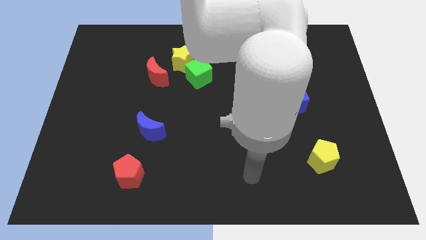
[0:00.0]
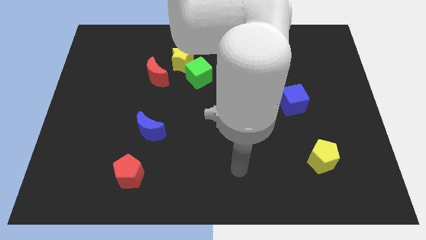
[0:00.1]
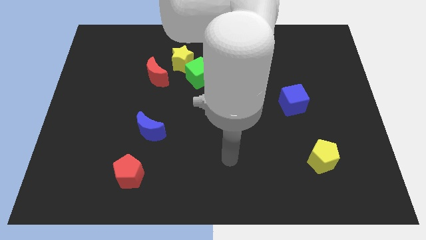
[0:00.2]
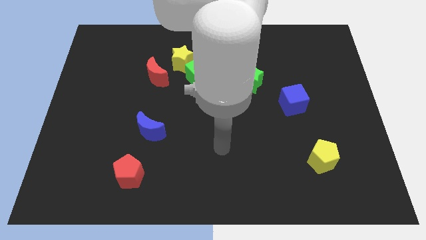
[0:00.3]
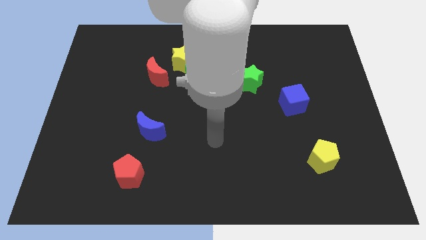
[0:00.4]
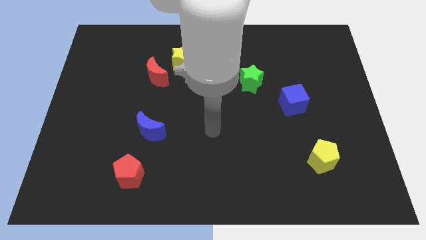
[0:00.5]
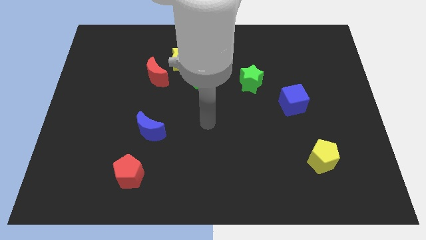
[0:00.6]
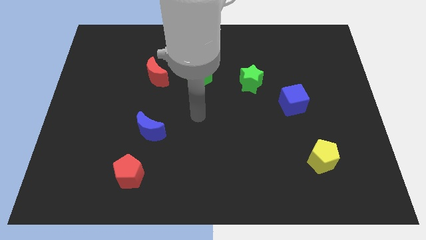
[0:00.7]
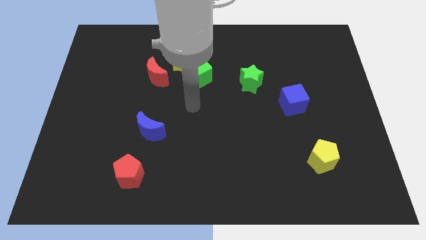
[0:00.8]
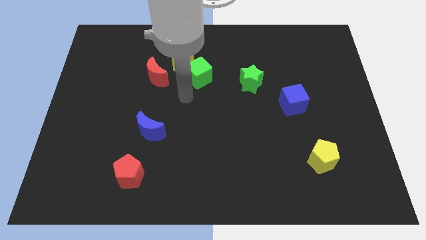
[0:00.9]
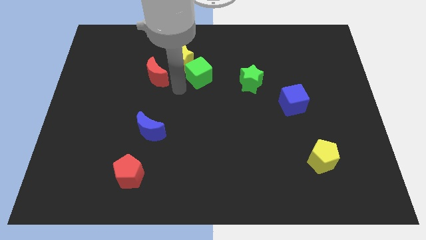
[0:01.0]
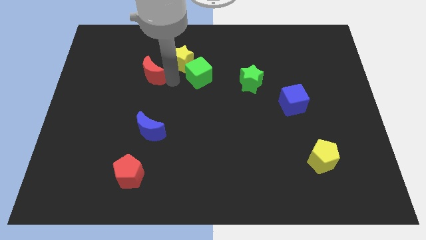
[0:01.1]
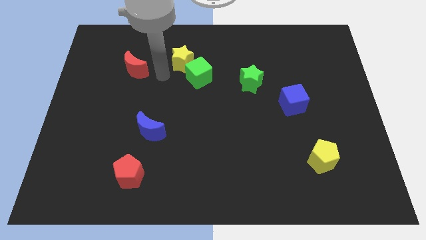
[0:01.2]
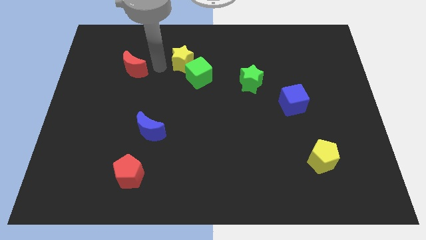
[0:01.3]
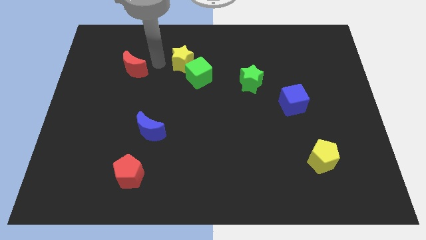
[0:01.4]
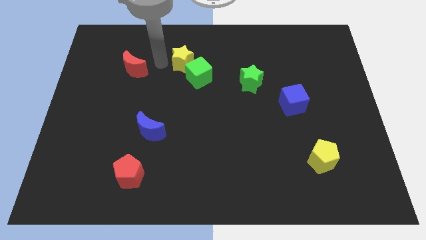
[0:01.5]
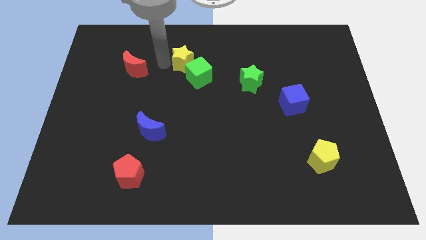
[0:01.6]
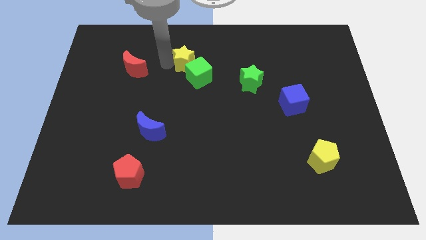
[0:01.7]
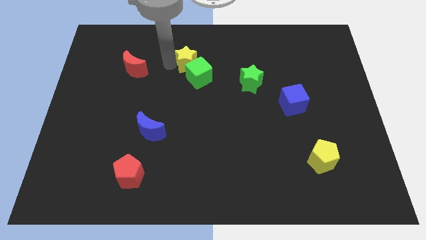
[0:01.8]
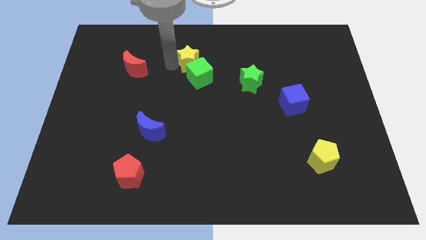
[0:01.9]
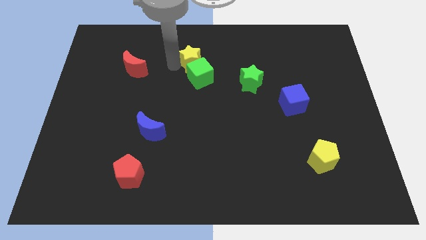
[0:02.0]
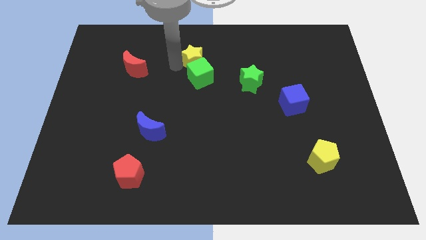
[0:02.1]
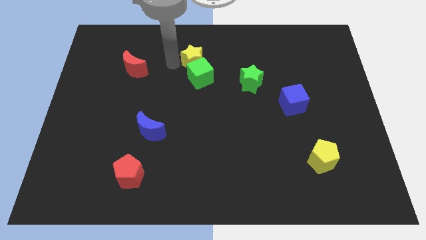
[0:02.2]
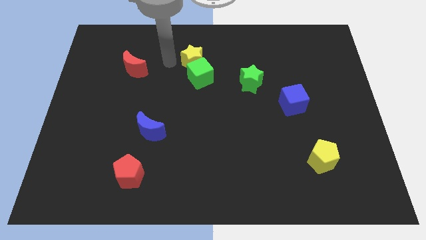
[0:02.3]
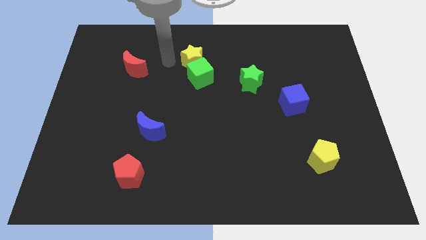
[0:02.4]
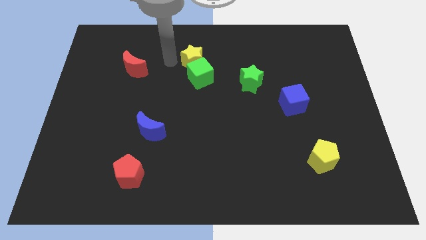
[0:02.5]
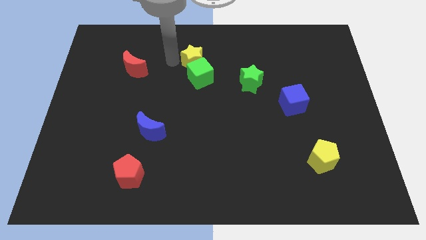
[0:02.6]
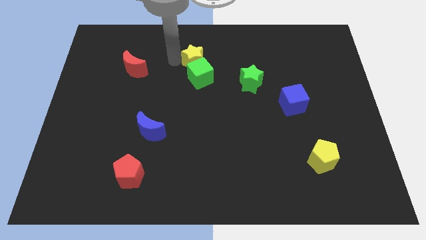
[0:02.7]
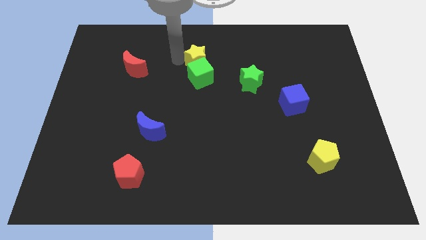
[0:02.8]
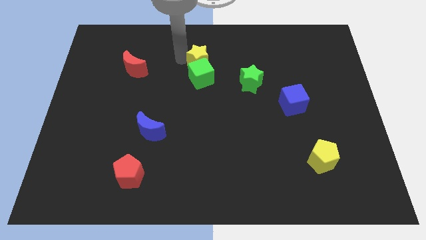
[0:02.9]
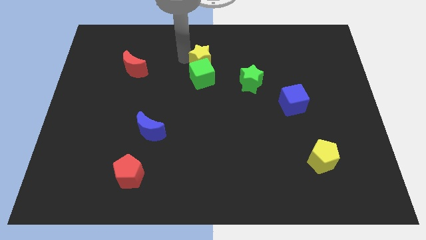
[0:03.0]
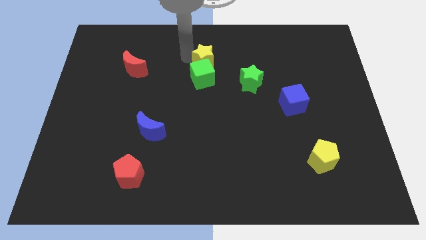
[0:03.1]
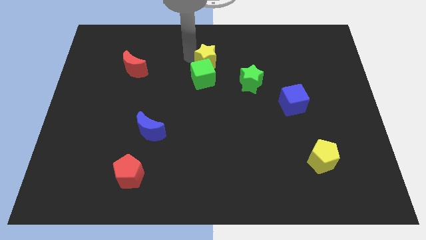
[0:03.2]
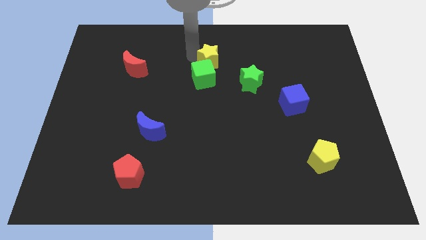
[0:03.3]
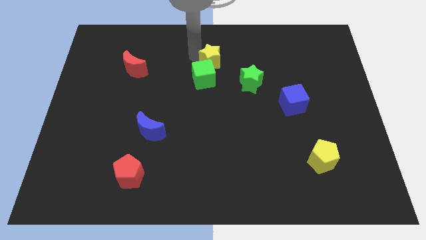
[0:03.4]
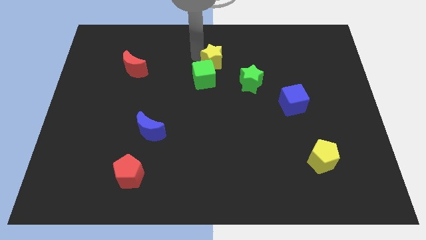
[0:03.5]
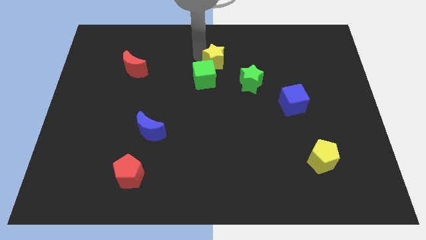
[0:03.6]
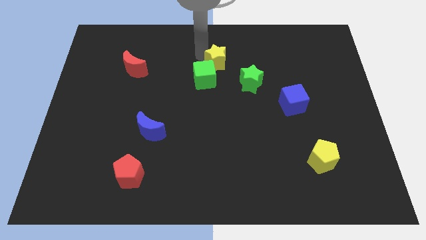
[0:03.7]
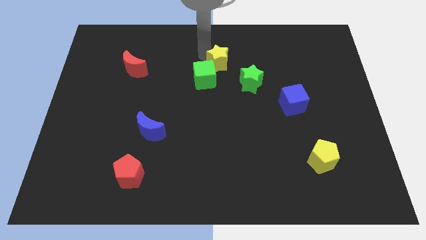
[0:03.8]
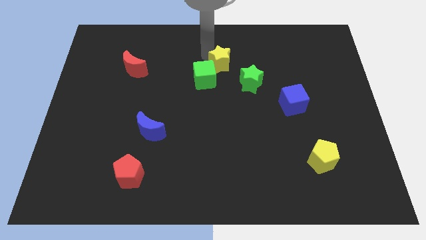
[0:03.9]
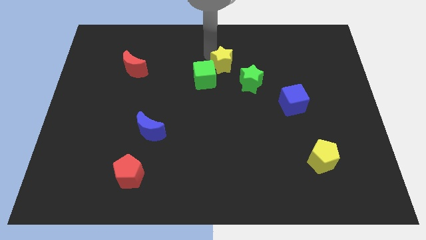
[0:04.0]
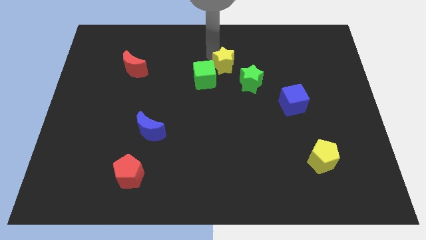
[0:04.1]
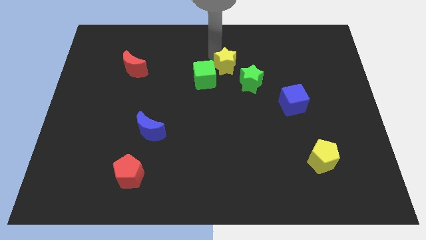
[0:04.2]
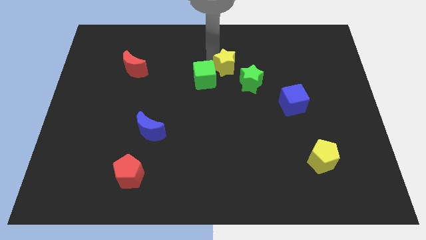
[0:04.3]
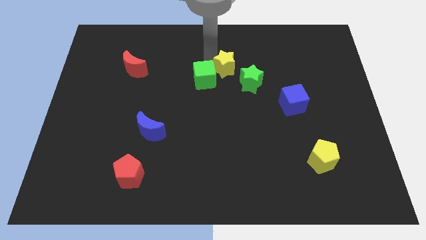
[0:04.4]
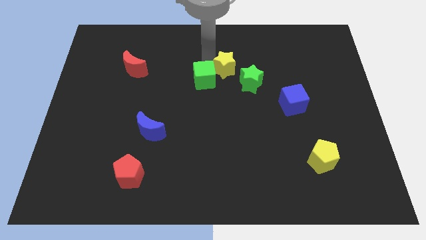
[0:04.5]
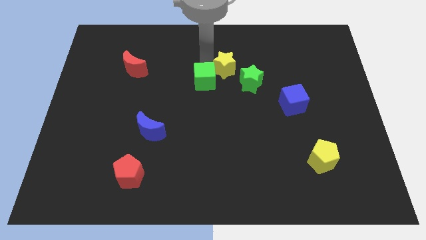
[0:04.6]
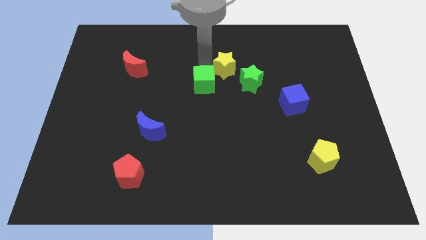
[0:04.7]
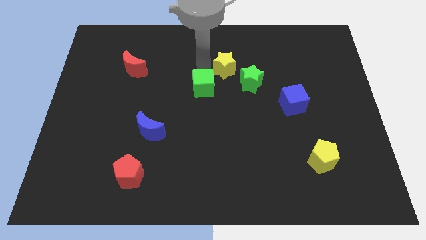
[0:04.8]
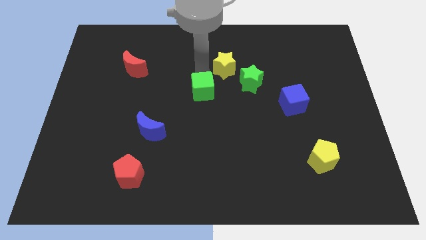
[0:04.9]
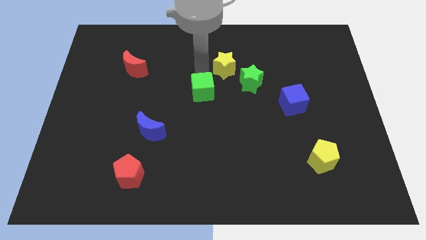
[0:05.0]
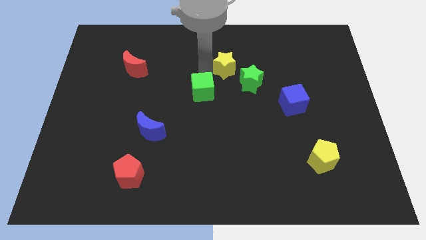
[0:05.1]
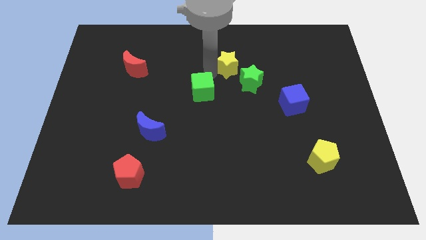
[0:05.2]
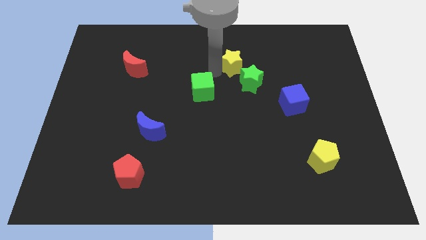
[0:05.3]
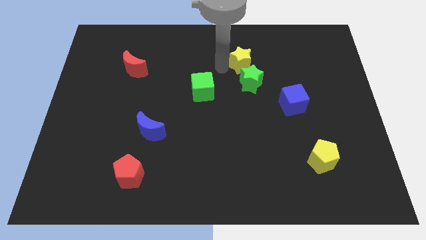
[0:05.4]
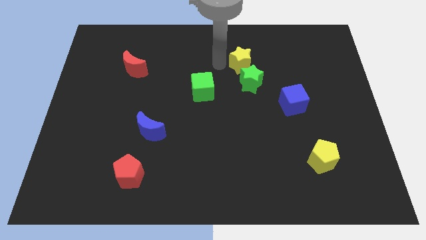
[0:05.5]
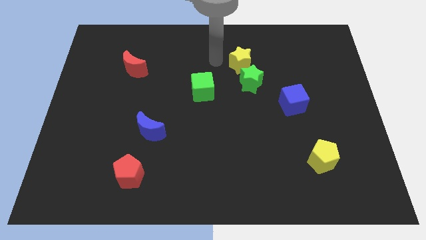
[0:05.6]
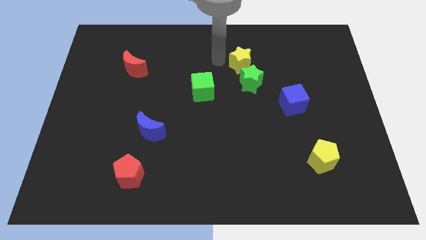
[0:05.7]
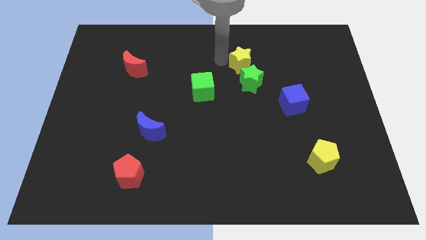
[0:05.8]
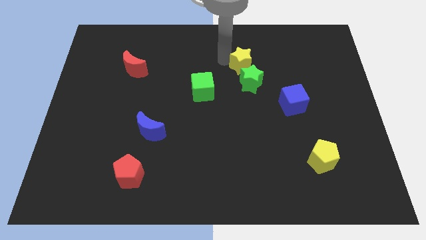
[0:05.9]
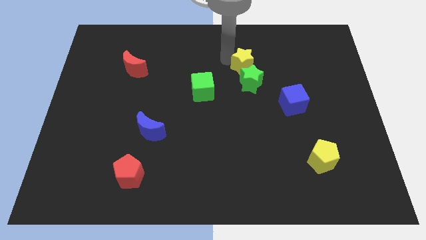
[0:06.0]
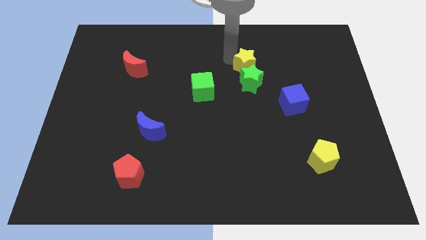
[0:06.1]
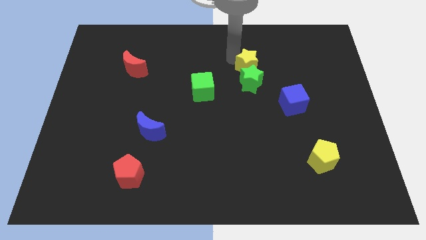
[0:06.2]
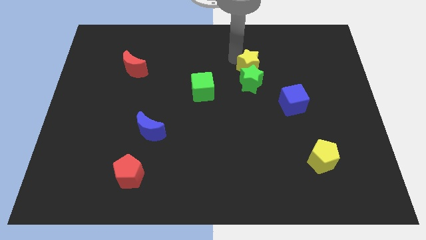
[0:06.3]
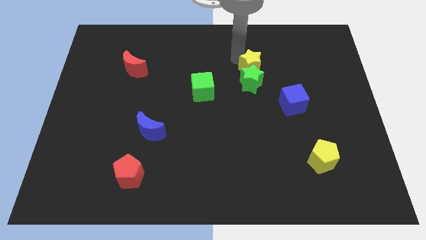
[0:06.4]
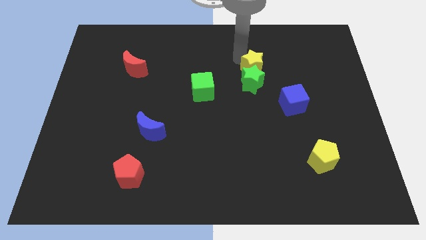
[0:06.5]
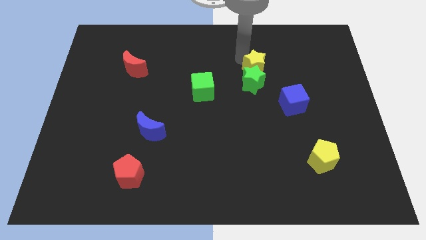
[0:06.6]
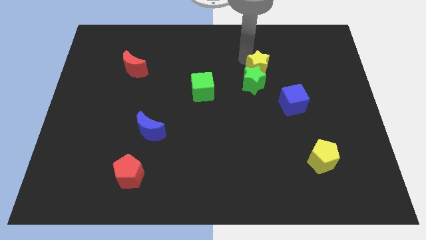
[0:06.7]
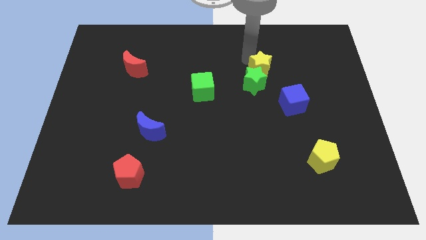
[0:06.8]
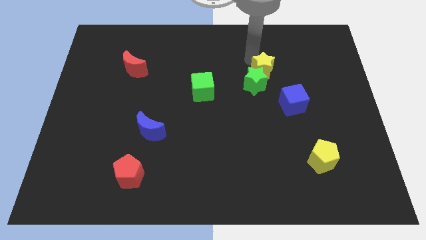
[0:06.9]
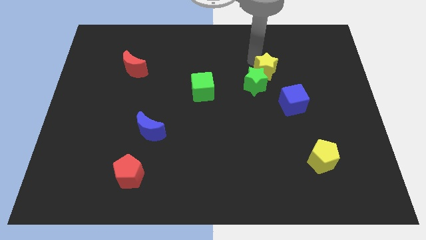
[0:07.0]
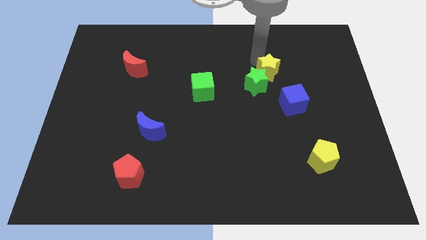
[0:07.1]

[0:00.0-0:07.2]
push the yellow star to the top of the blue cube

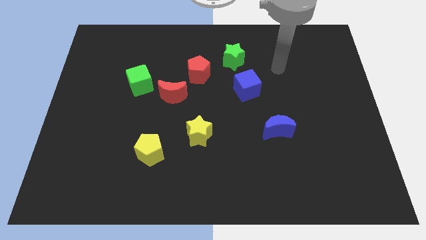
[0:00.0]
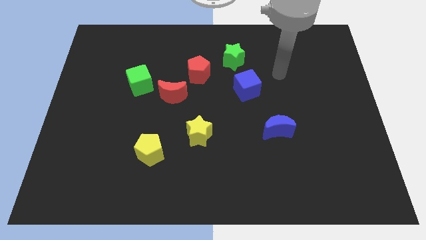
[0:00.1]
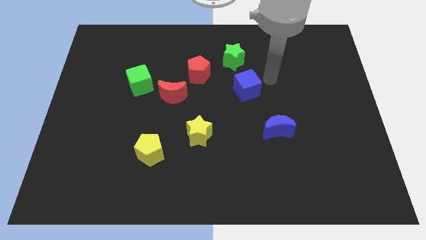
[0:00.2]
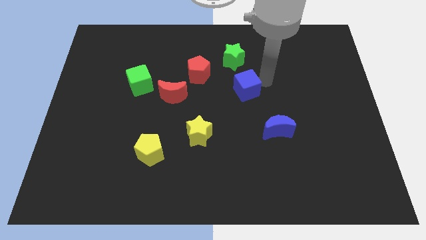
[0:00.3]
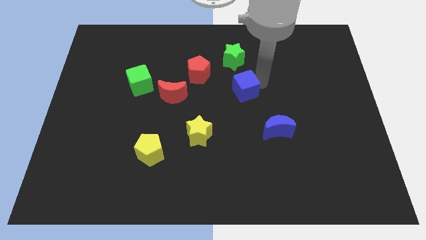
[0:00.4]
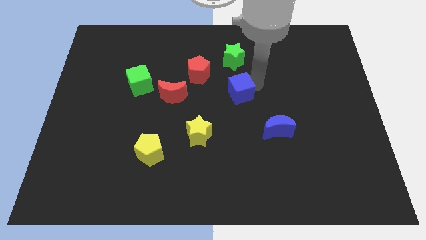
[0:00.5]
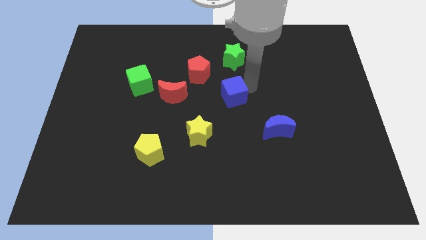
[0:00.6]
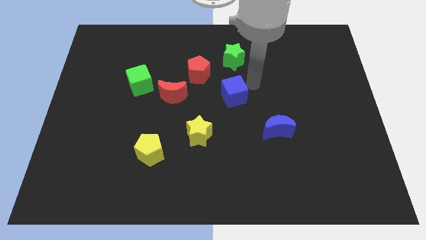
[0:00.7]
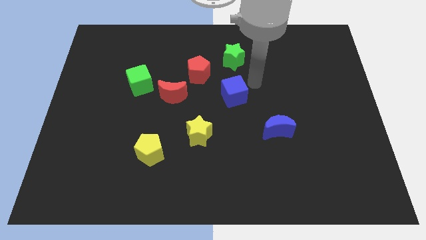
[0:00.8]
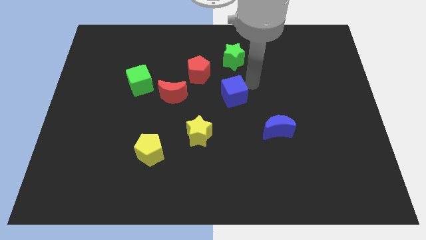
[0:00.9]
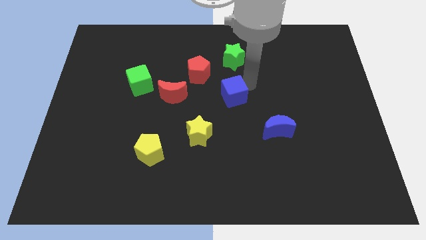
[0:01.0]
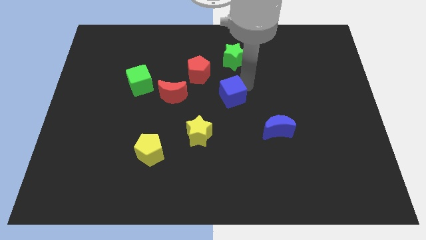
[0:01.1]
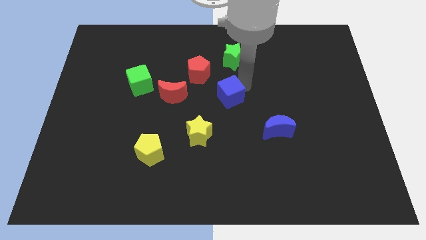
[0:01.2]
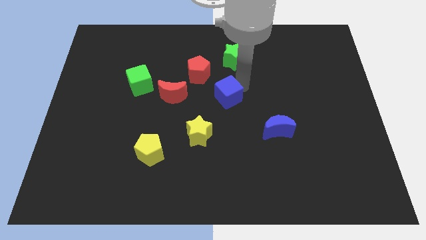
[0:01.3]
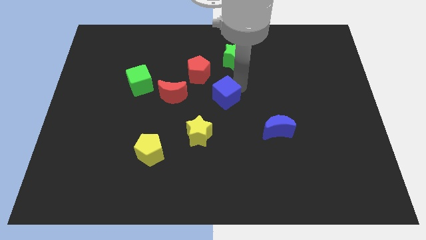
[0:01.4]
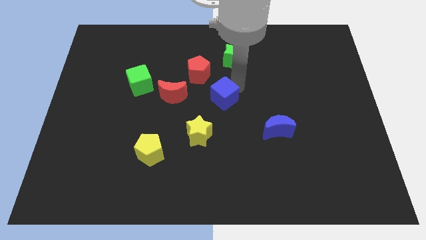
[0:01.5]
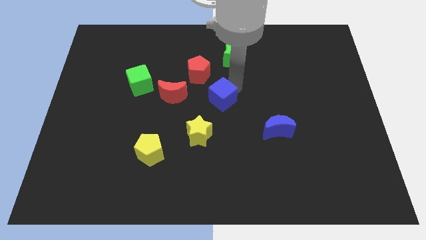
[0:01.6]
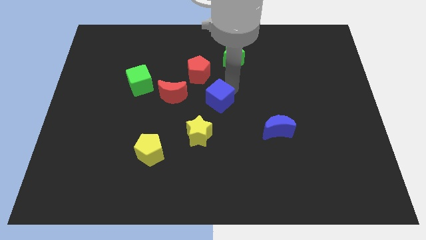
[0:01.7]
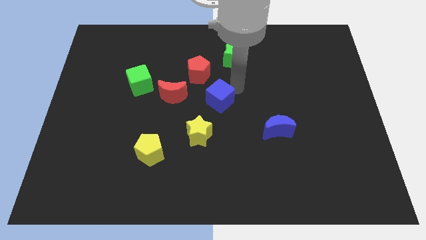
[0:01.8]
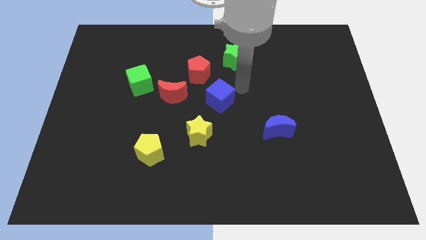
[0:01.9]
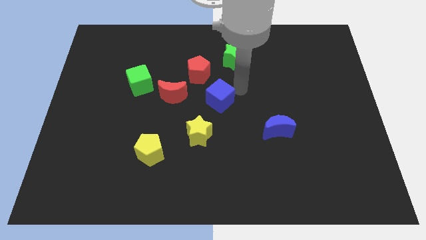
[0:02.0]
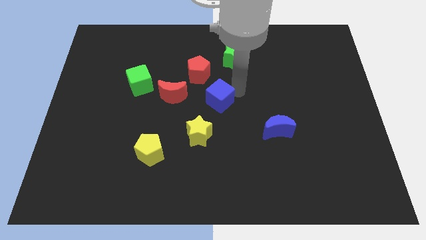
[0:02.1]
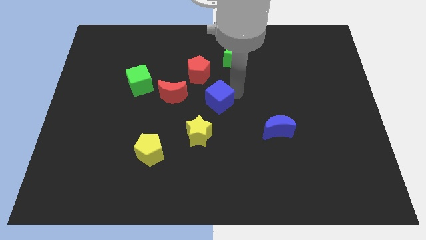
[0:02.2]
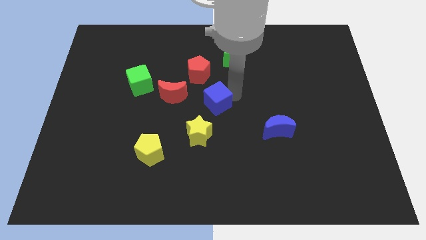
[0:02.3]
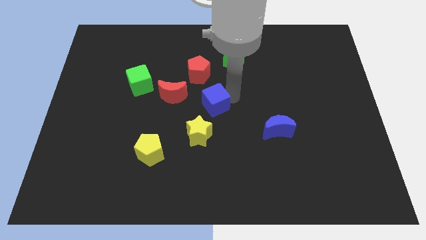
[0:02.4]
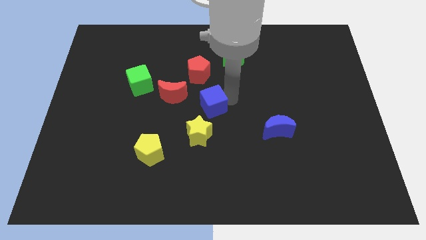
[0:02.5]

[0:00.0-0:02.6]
move the blue cube to the bottom right of the red moon
